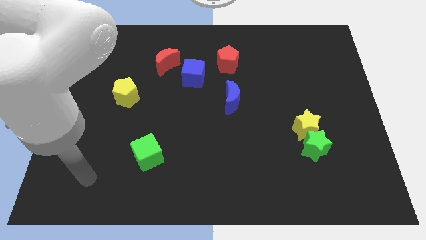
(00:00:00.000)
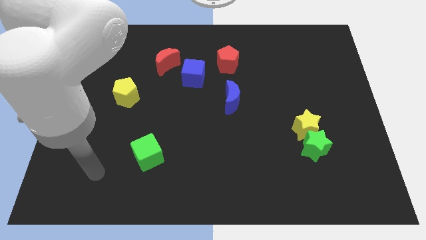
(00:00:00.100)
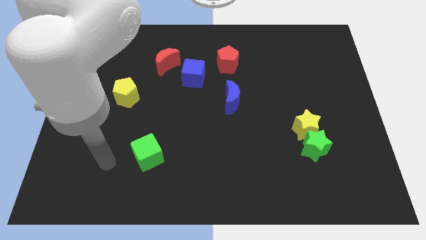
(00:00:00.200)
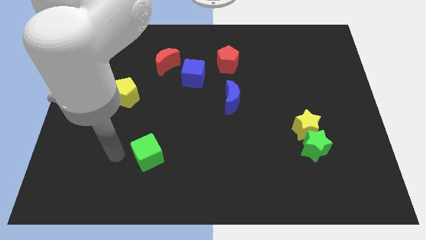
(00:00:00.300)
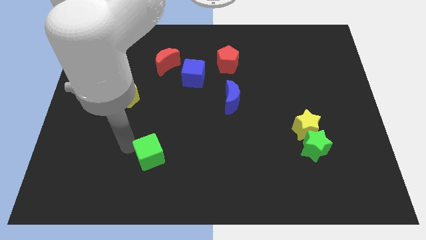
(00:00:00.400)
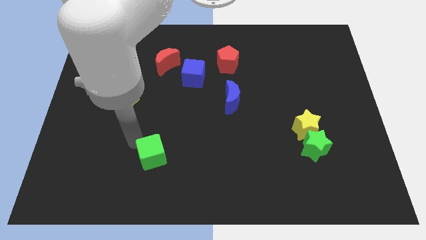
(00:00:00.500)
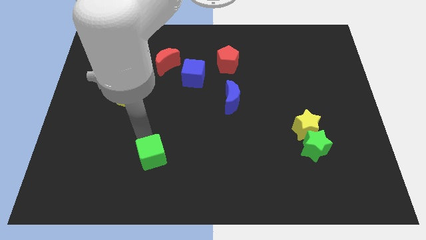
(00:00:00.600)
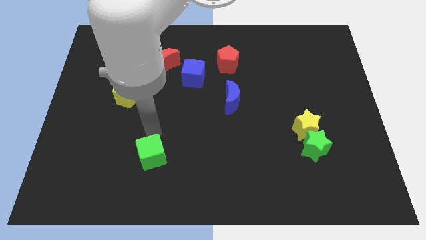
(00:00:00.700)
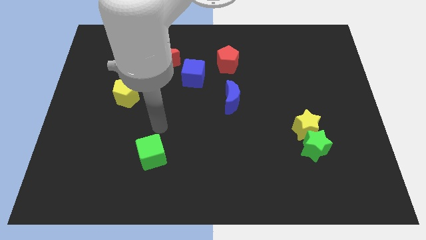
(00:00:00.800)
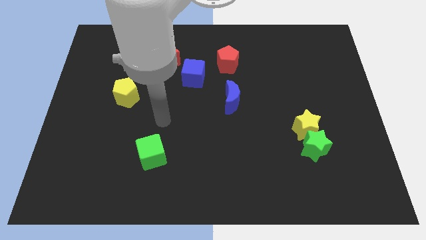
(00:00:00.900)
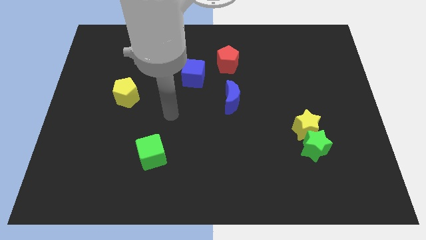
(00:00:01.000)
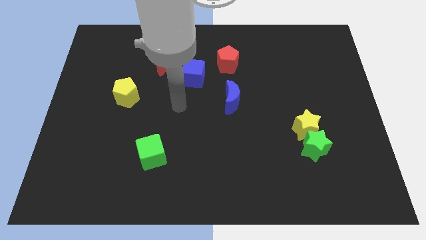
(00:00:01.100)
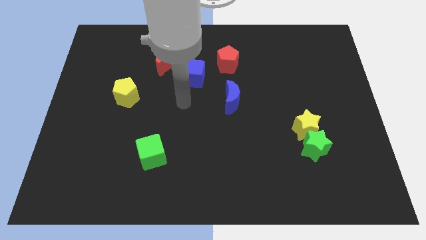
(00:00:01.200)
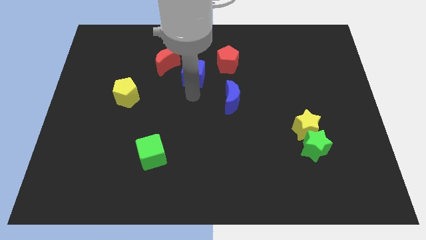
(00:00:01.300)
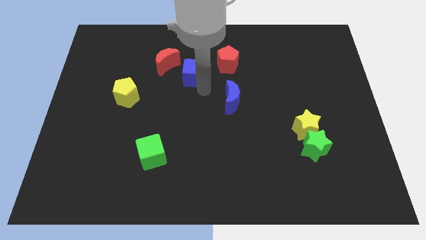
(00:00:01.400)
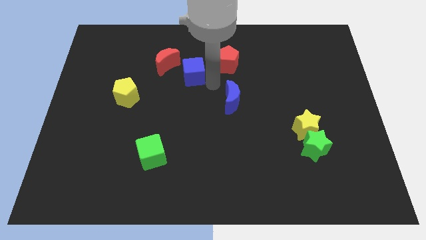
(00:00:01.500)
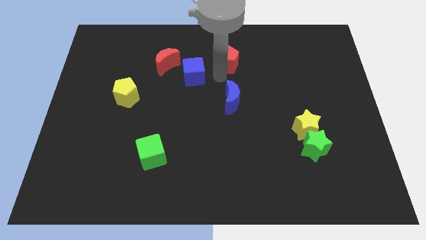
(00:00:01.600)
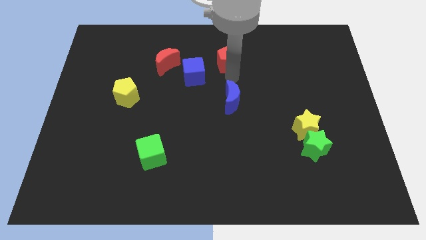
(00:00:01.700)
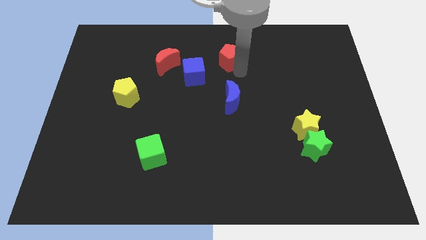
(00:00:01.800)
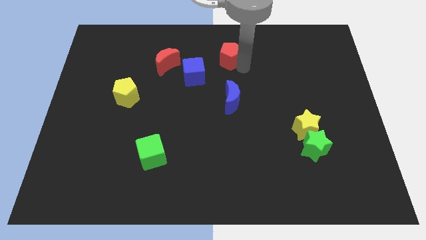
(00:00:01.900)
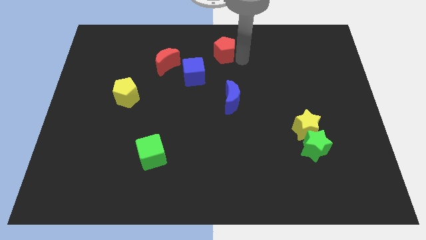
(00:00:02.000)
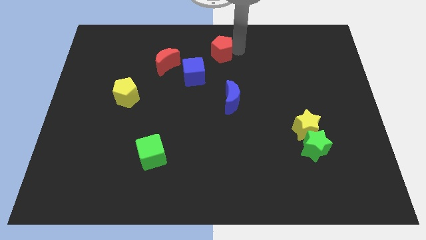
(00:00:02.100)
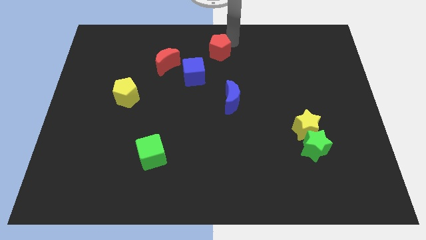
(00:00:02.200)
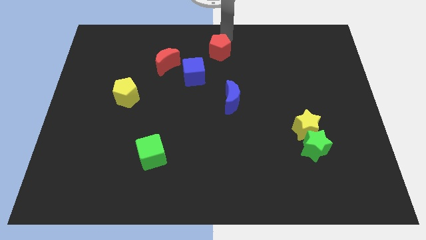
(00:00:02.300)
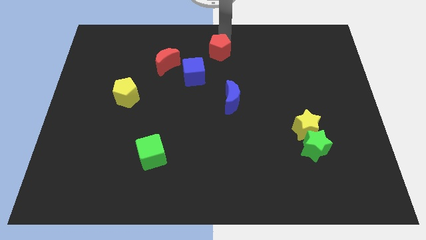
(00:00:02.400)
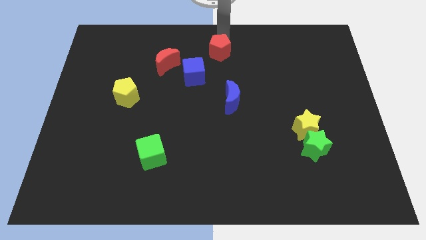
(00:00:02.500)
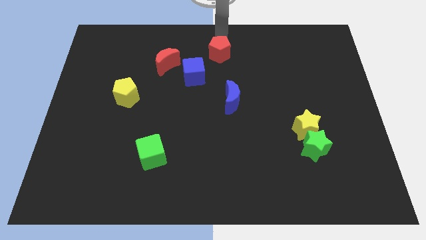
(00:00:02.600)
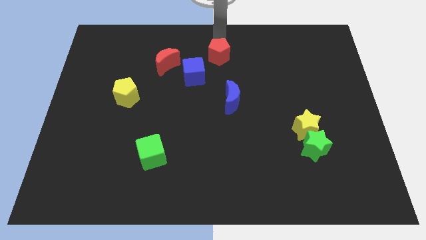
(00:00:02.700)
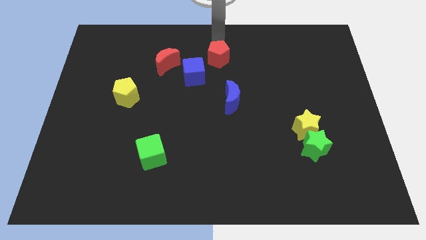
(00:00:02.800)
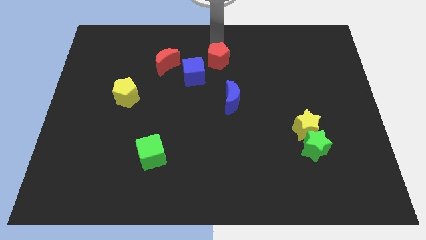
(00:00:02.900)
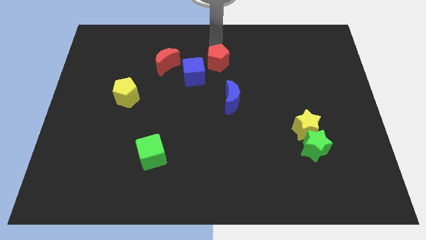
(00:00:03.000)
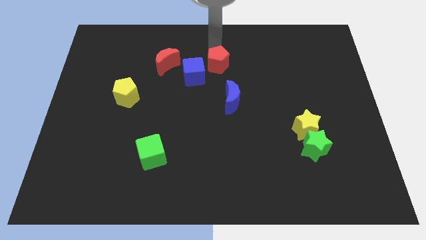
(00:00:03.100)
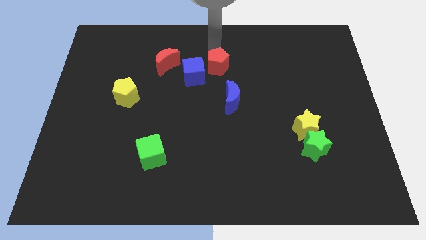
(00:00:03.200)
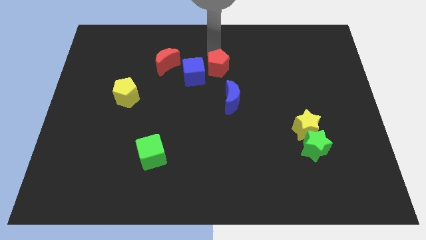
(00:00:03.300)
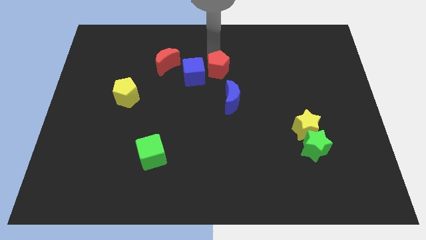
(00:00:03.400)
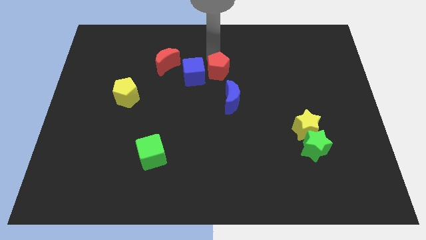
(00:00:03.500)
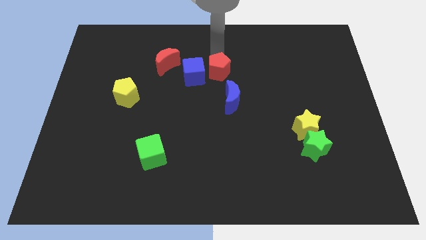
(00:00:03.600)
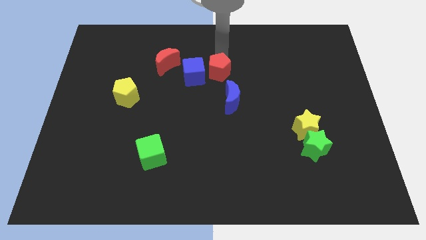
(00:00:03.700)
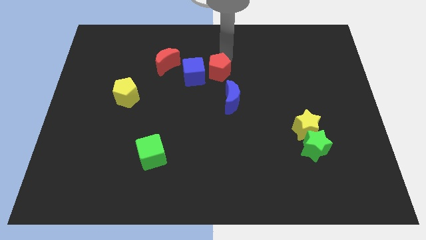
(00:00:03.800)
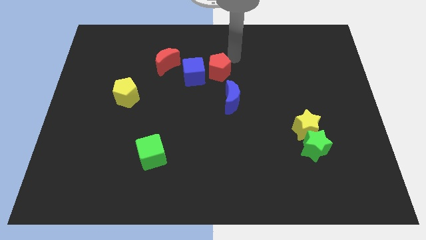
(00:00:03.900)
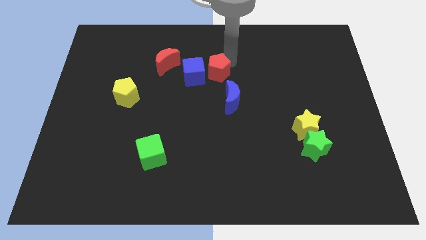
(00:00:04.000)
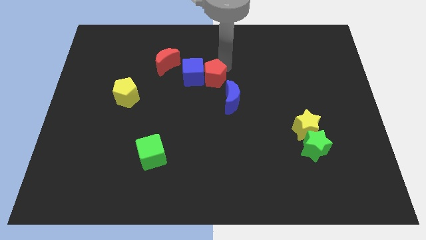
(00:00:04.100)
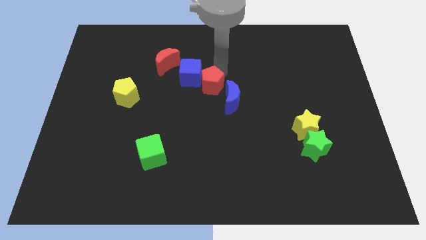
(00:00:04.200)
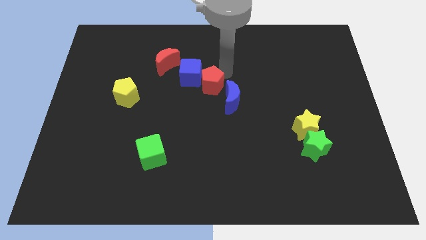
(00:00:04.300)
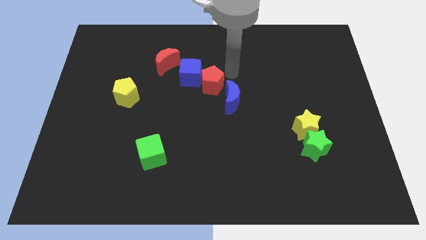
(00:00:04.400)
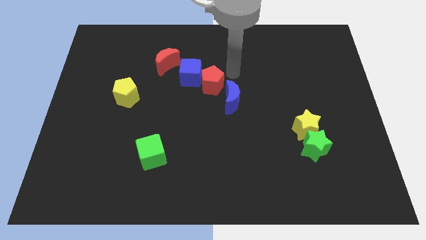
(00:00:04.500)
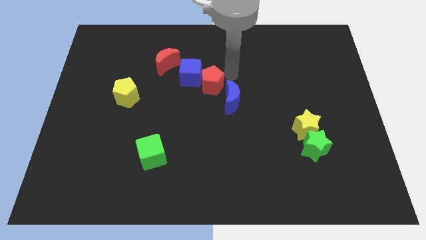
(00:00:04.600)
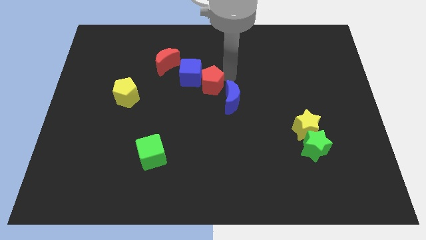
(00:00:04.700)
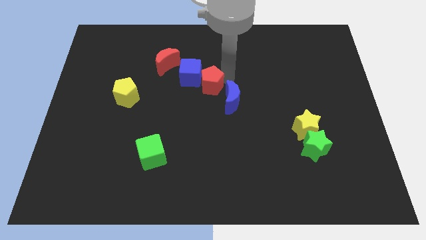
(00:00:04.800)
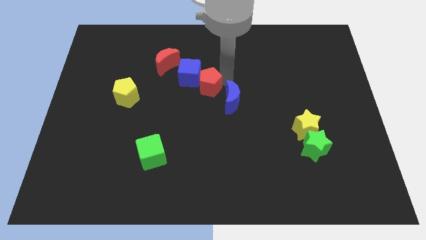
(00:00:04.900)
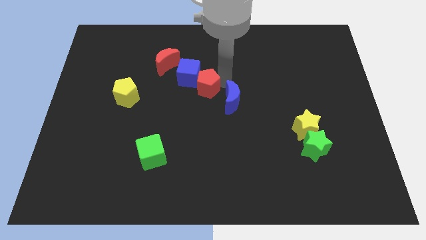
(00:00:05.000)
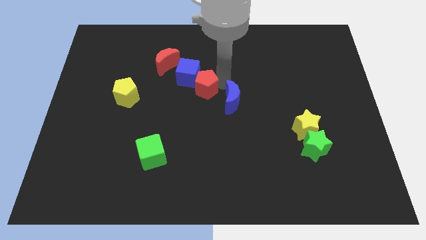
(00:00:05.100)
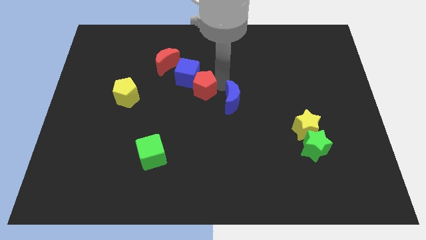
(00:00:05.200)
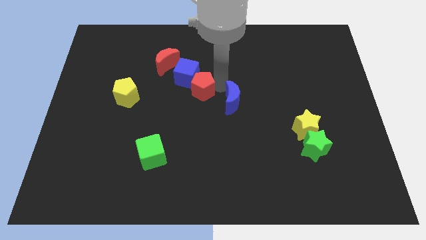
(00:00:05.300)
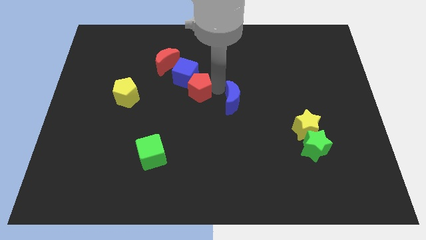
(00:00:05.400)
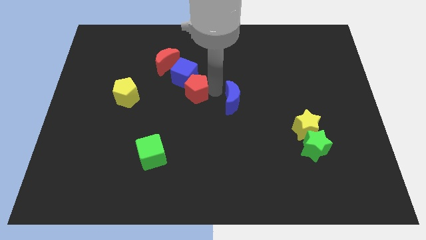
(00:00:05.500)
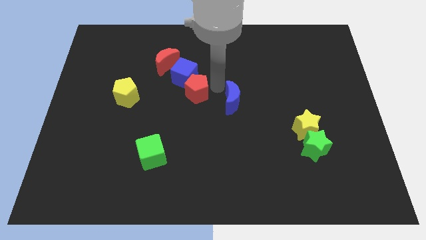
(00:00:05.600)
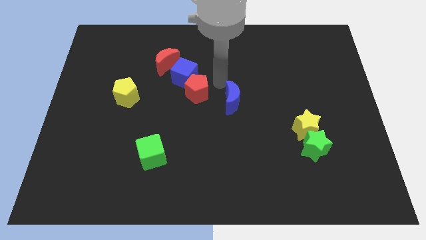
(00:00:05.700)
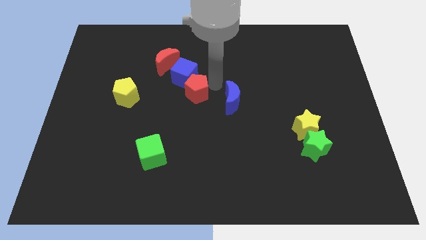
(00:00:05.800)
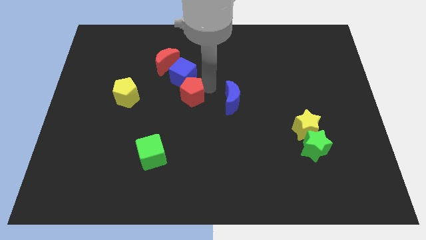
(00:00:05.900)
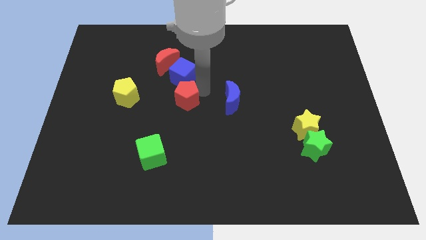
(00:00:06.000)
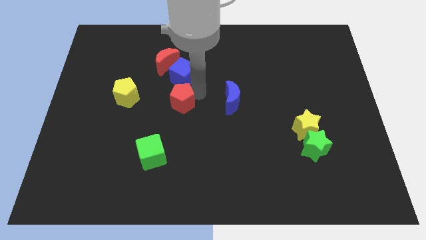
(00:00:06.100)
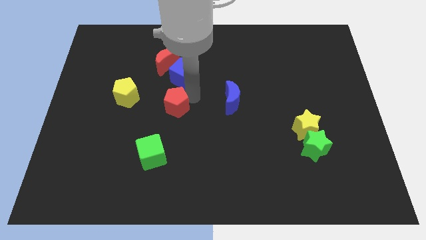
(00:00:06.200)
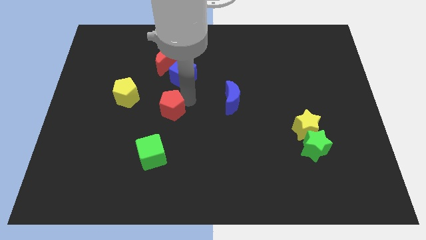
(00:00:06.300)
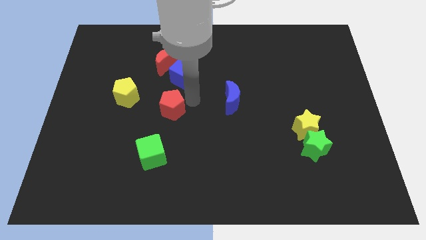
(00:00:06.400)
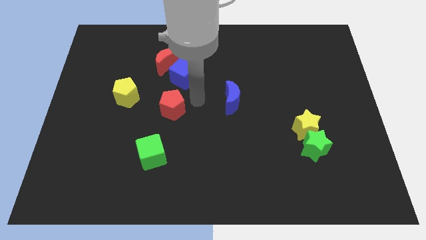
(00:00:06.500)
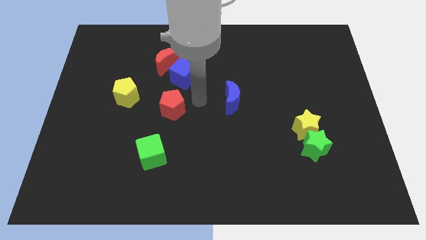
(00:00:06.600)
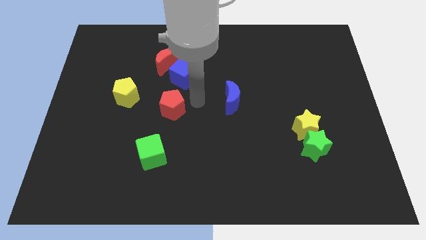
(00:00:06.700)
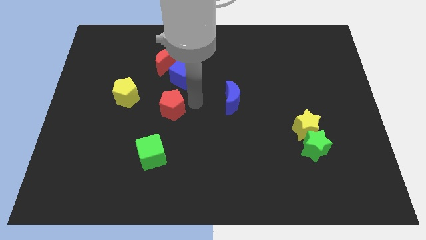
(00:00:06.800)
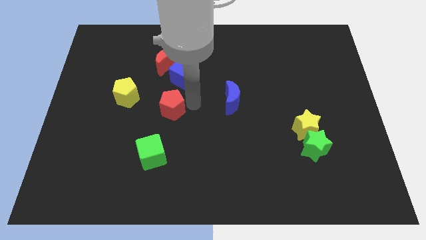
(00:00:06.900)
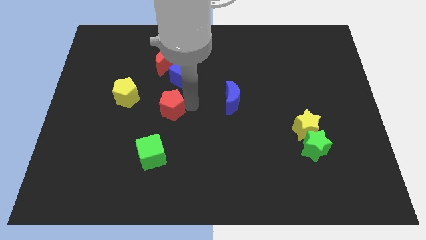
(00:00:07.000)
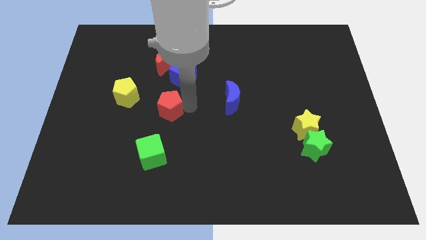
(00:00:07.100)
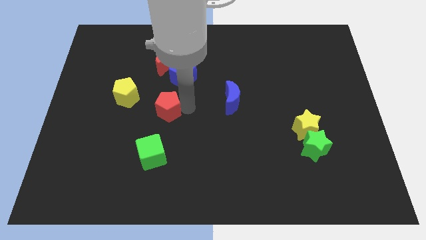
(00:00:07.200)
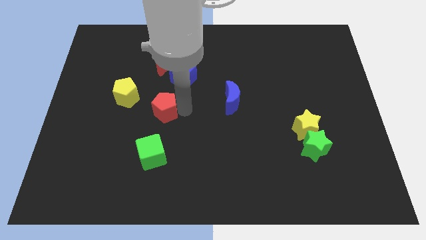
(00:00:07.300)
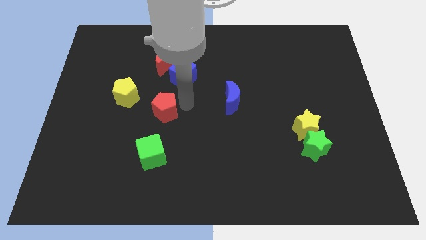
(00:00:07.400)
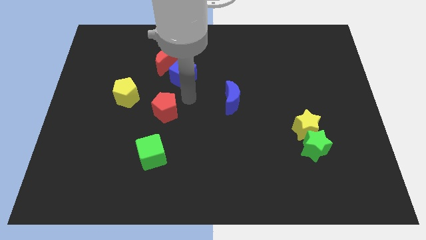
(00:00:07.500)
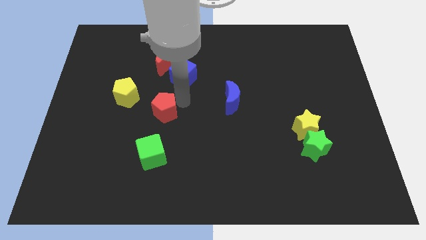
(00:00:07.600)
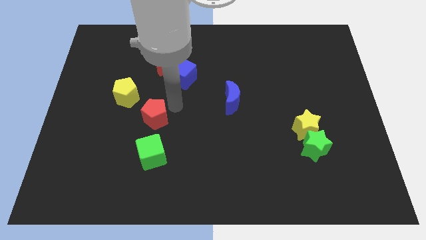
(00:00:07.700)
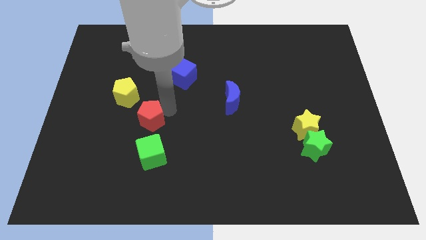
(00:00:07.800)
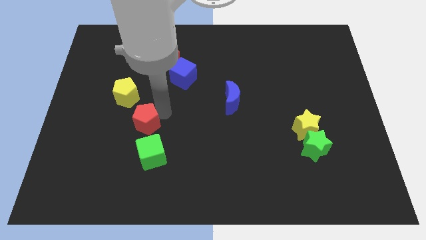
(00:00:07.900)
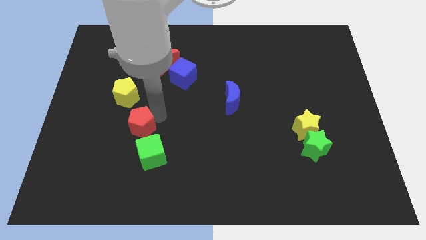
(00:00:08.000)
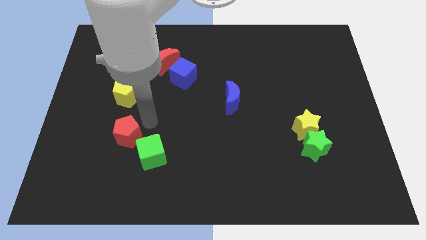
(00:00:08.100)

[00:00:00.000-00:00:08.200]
slide the red pentagon to the left side of the green cube

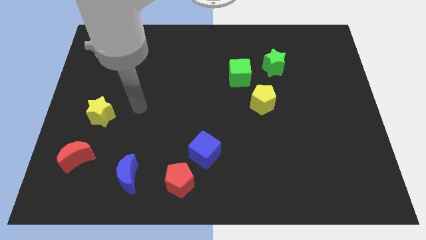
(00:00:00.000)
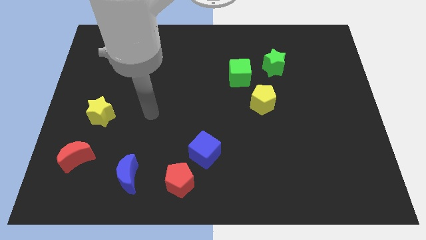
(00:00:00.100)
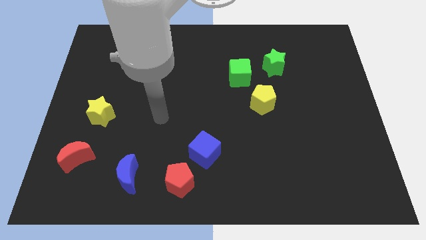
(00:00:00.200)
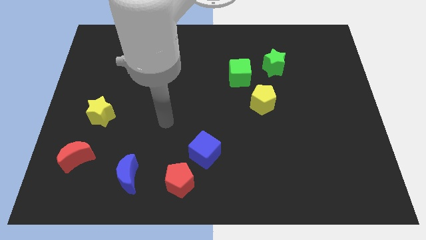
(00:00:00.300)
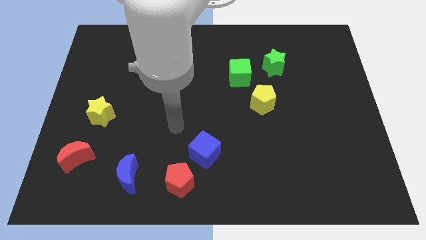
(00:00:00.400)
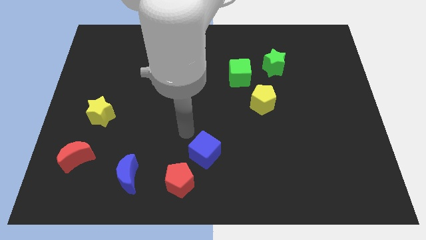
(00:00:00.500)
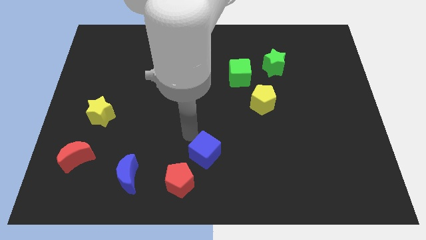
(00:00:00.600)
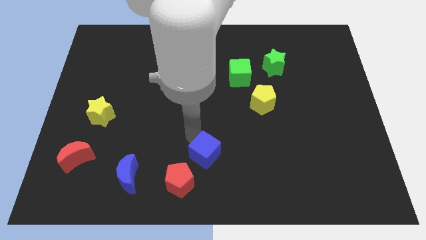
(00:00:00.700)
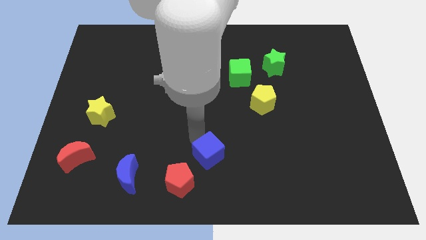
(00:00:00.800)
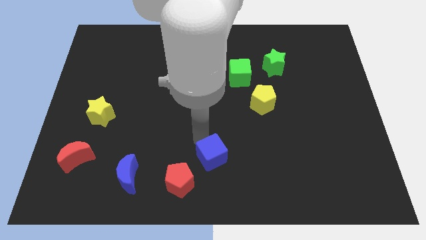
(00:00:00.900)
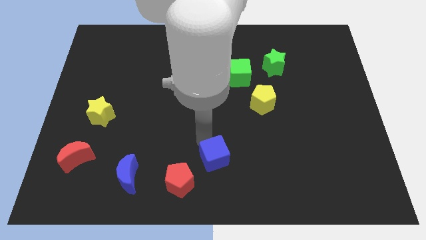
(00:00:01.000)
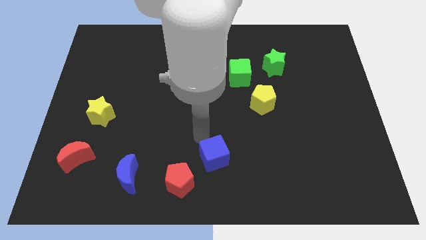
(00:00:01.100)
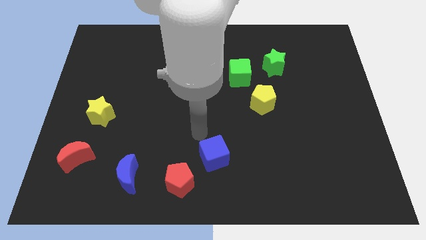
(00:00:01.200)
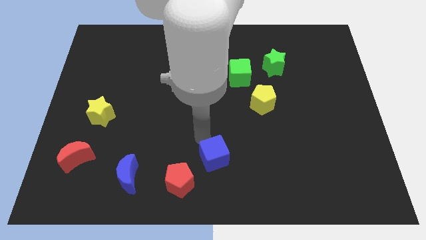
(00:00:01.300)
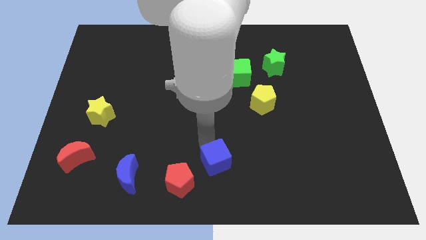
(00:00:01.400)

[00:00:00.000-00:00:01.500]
put the blue cube to the right side of the red pentagon
